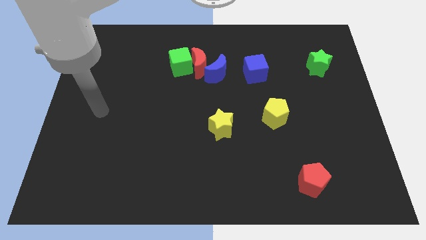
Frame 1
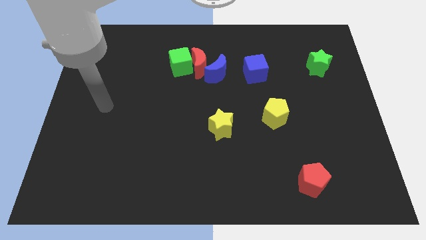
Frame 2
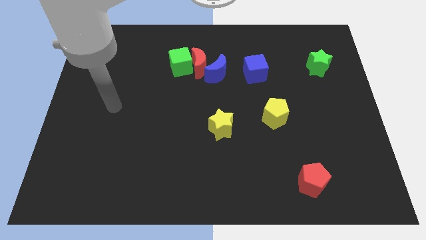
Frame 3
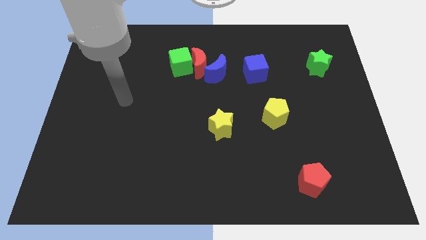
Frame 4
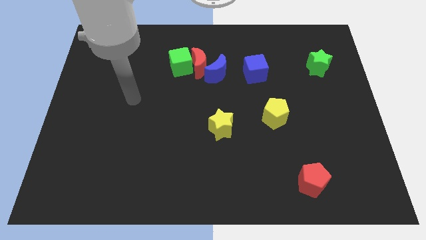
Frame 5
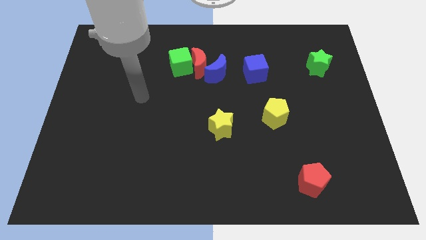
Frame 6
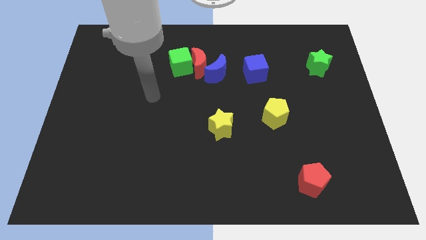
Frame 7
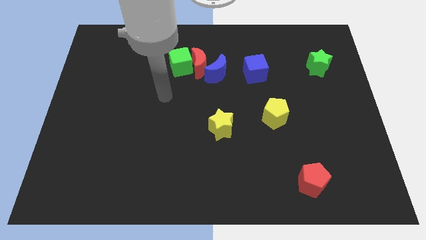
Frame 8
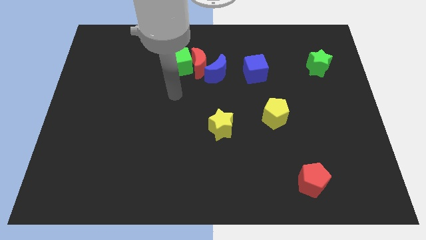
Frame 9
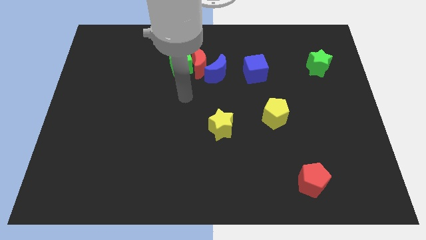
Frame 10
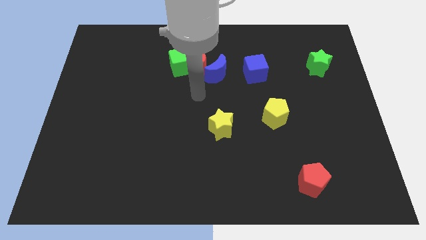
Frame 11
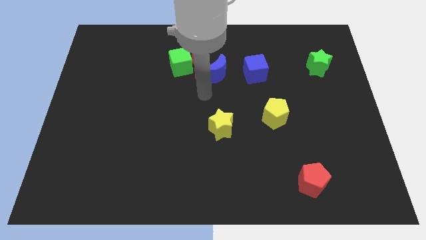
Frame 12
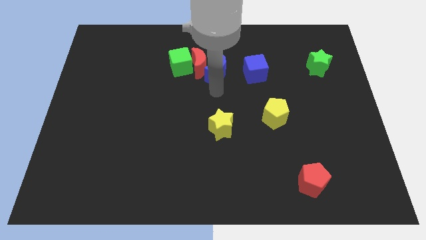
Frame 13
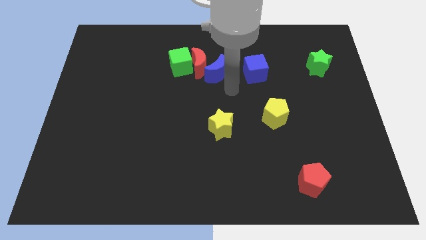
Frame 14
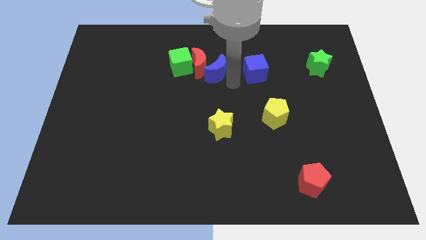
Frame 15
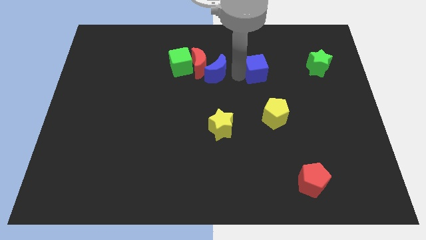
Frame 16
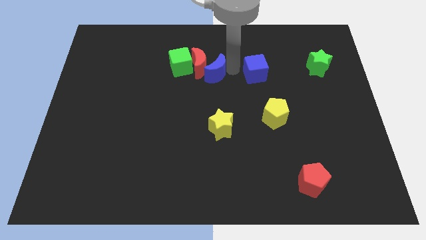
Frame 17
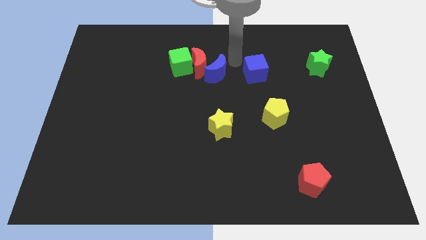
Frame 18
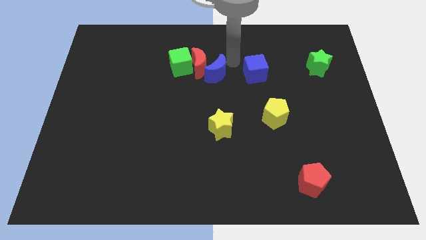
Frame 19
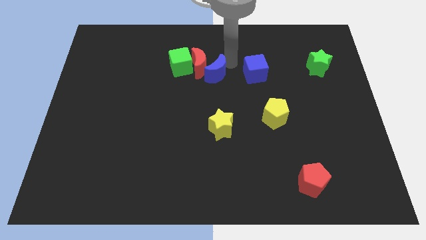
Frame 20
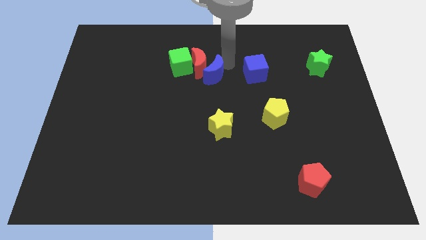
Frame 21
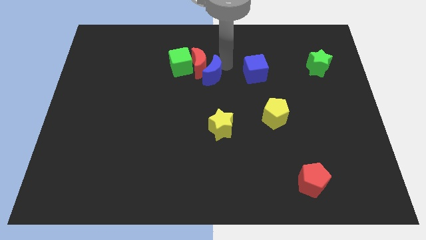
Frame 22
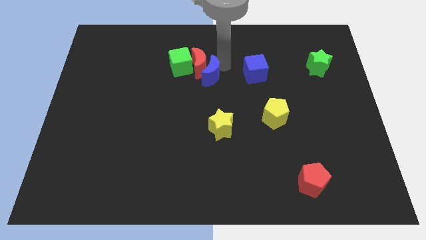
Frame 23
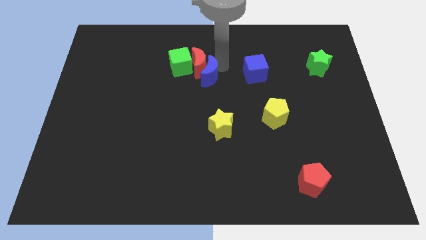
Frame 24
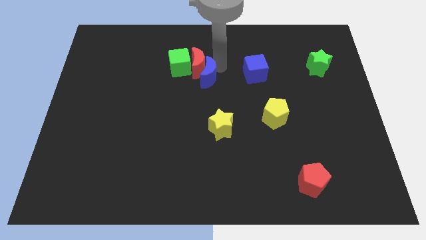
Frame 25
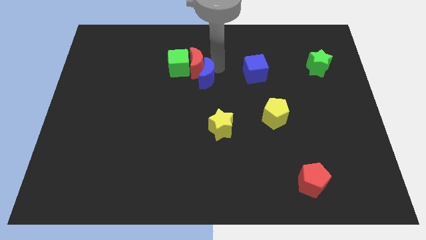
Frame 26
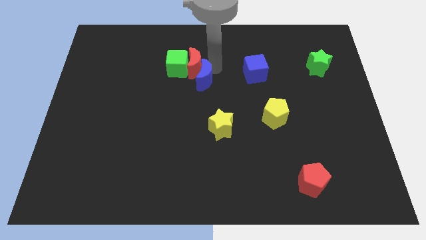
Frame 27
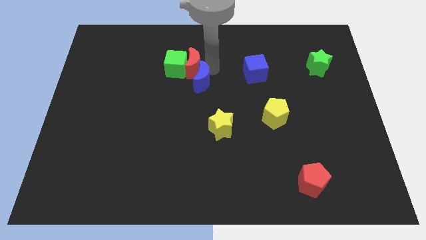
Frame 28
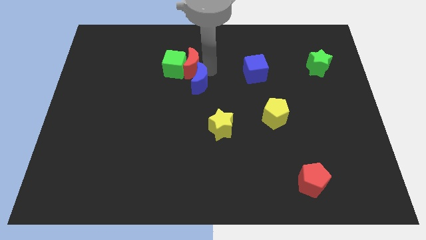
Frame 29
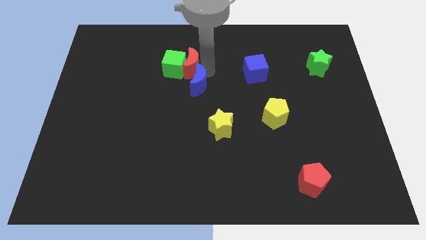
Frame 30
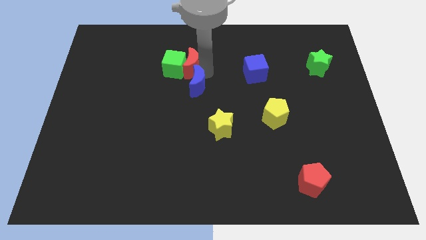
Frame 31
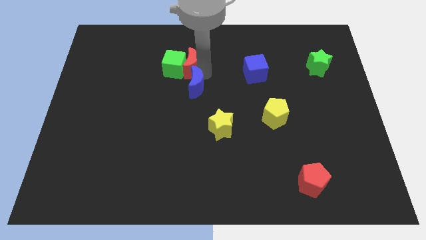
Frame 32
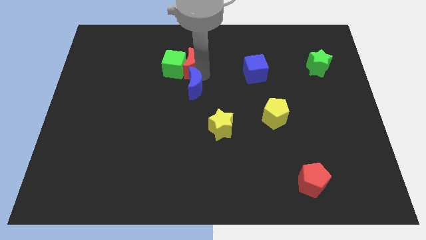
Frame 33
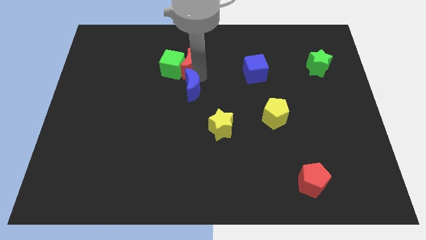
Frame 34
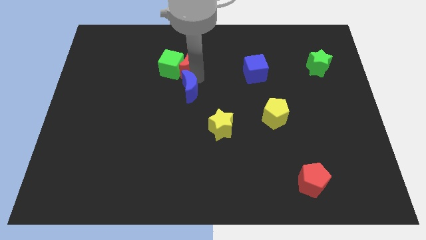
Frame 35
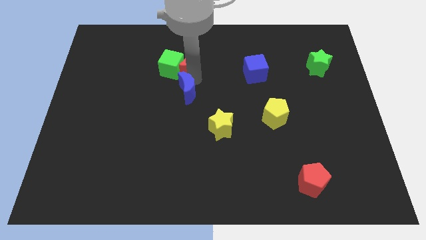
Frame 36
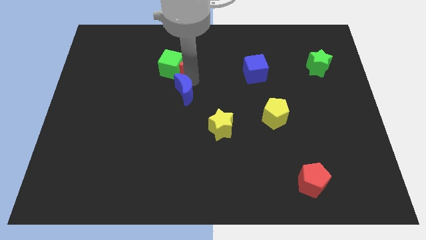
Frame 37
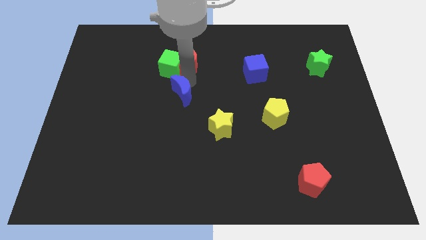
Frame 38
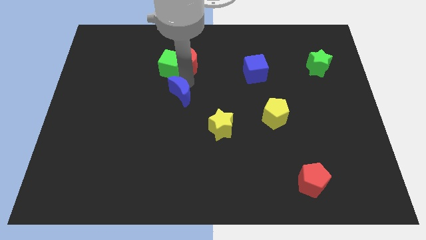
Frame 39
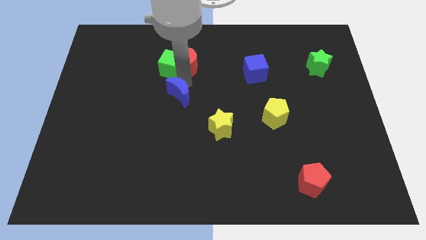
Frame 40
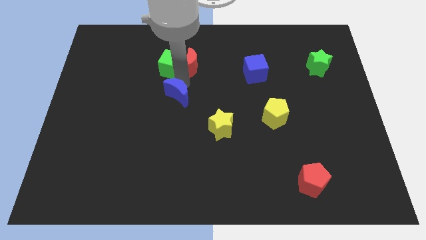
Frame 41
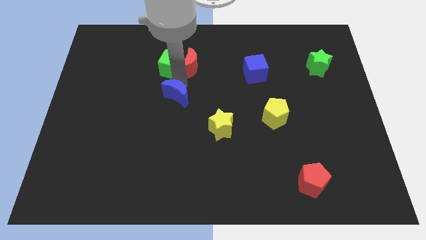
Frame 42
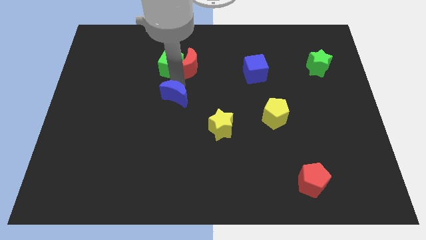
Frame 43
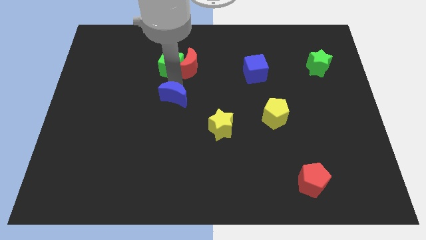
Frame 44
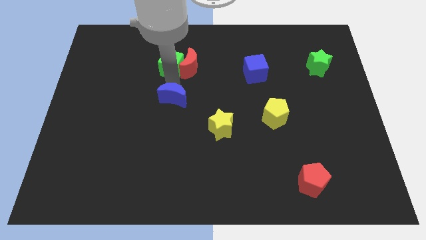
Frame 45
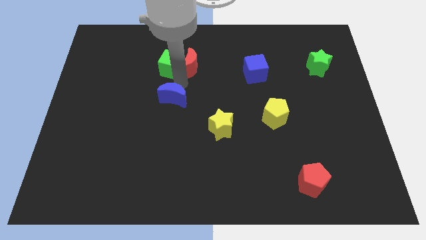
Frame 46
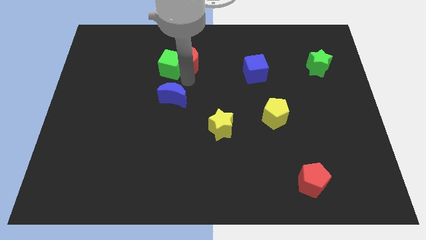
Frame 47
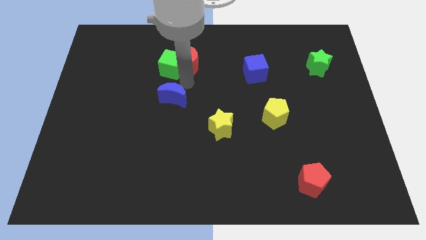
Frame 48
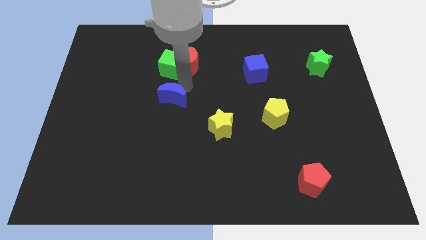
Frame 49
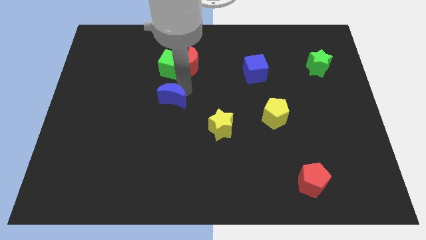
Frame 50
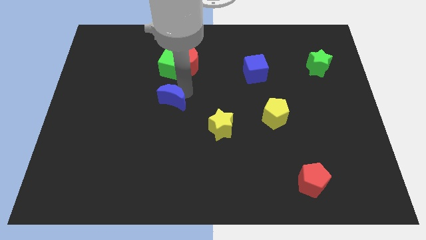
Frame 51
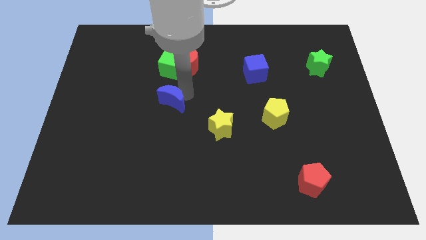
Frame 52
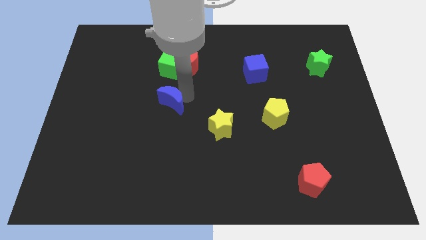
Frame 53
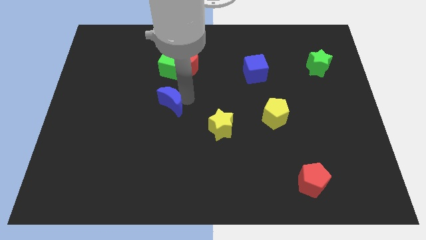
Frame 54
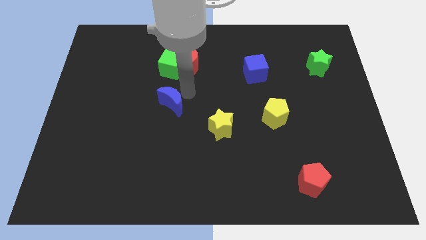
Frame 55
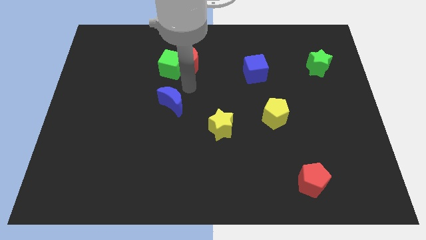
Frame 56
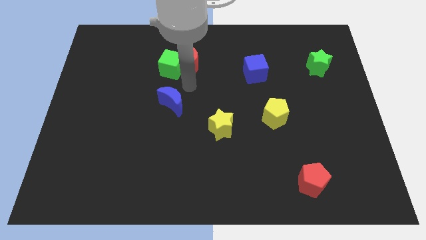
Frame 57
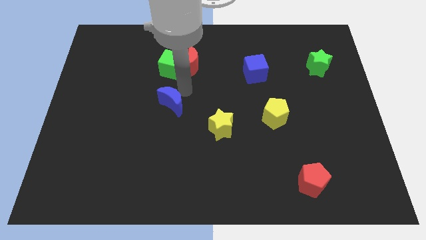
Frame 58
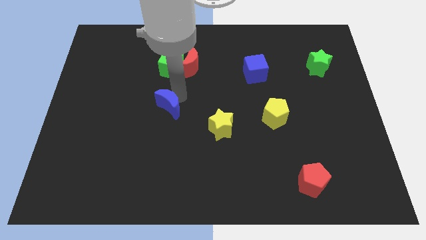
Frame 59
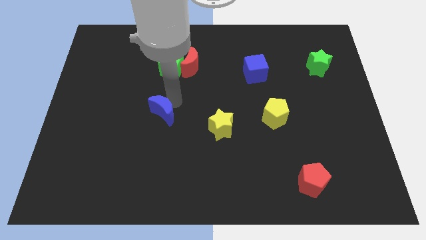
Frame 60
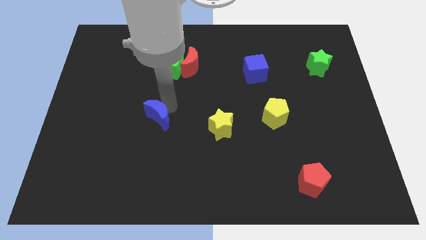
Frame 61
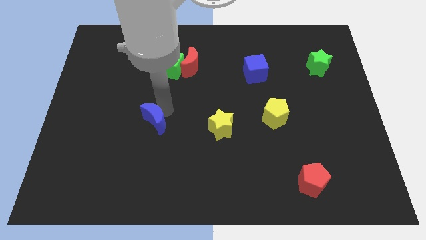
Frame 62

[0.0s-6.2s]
slide the blue moon downwards and left diagonally

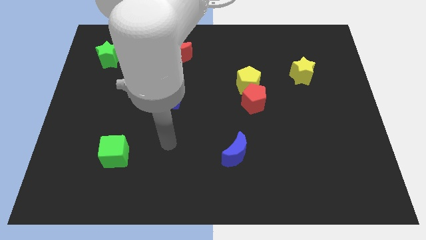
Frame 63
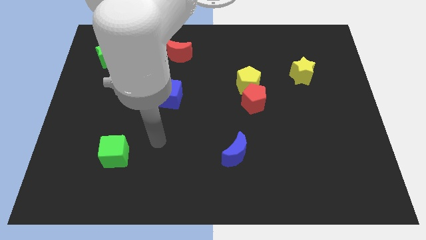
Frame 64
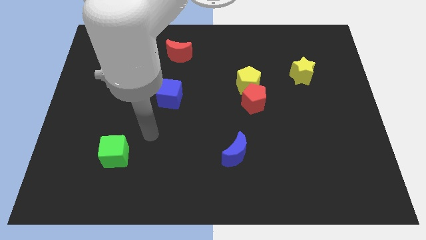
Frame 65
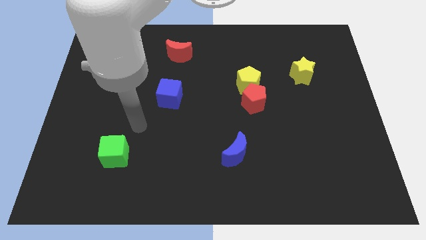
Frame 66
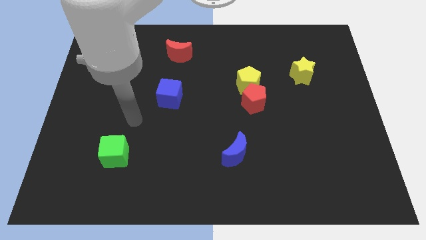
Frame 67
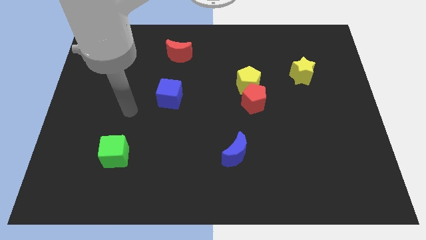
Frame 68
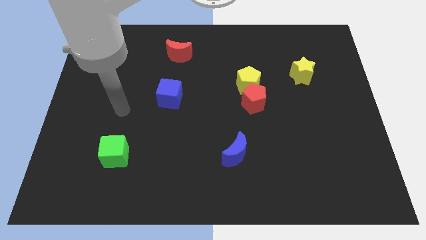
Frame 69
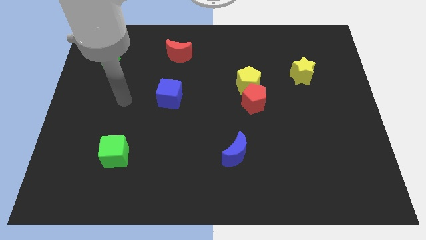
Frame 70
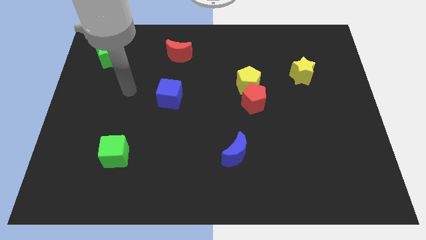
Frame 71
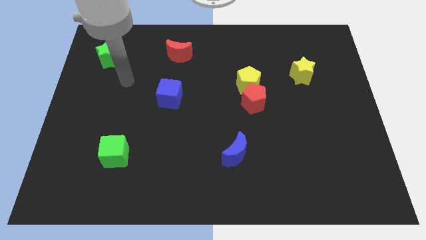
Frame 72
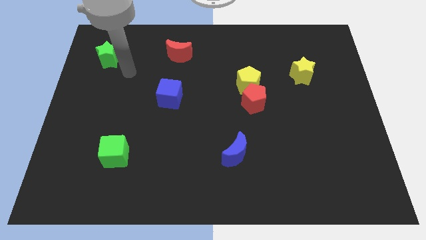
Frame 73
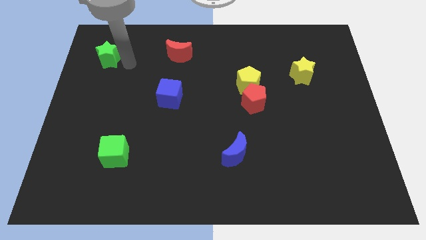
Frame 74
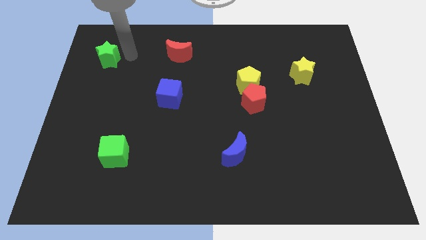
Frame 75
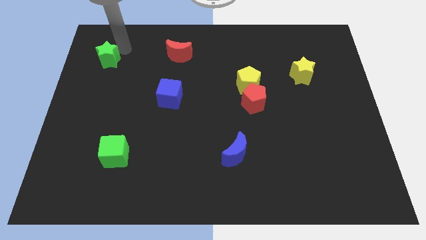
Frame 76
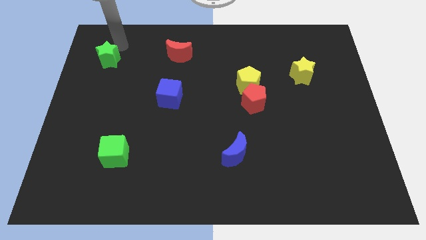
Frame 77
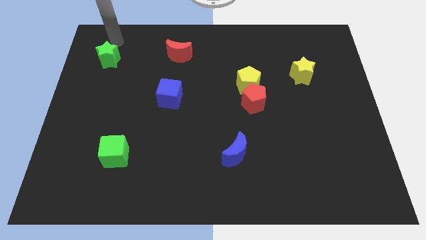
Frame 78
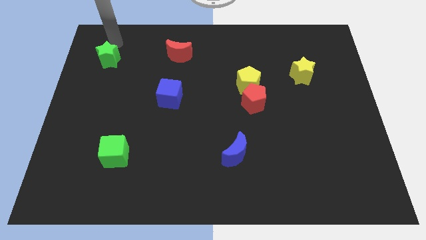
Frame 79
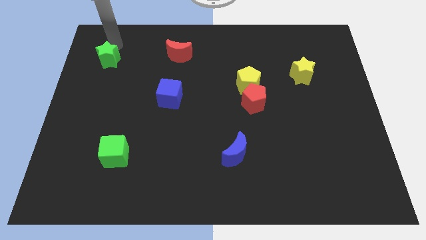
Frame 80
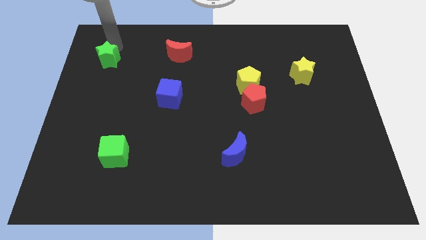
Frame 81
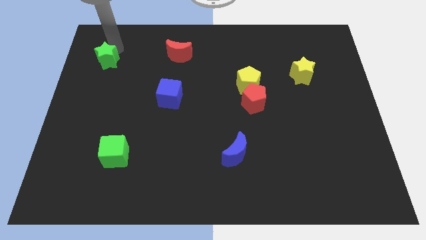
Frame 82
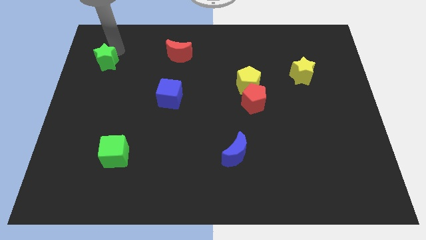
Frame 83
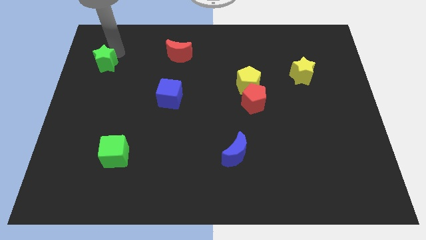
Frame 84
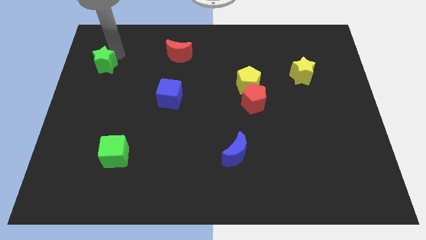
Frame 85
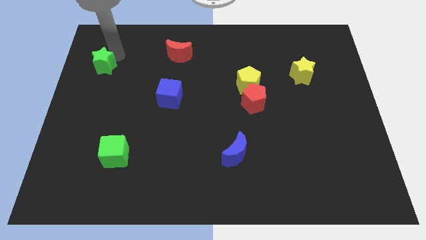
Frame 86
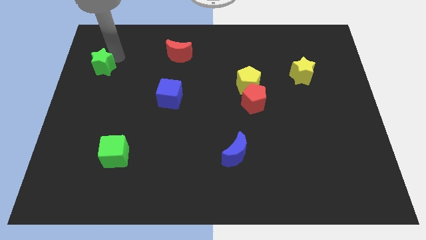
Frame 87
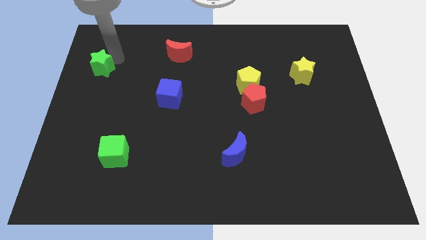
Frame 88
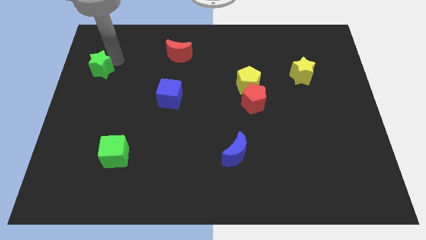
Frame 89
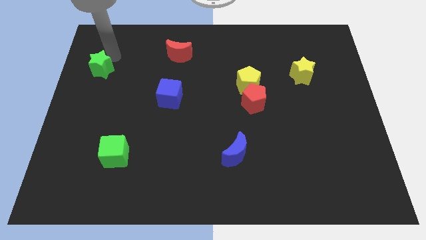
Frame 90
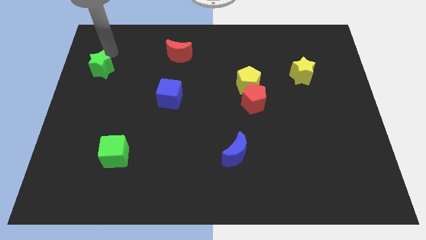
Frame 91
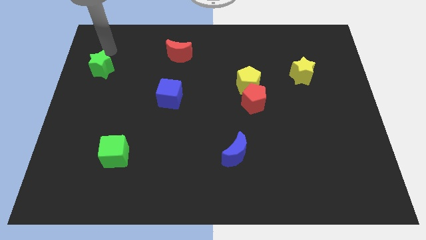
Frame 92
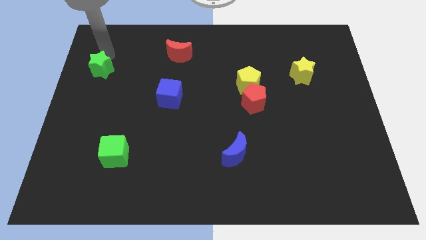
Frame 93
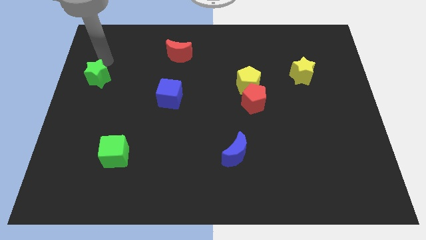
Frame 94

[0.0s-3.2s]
slightly slide the green star downwards
